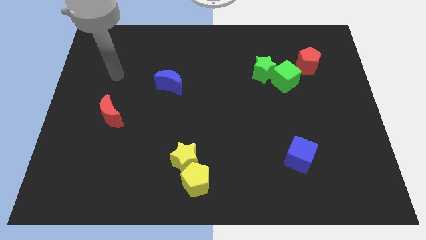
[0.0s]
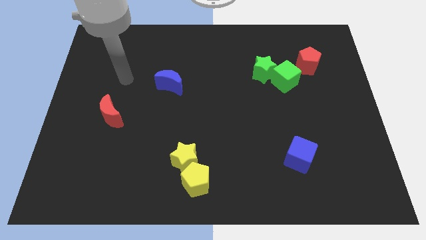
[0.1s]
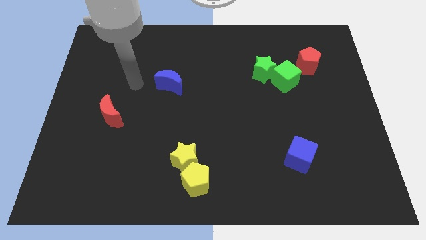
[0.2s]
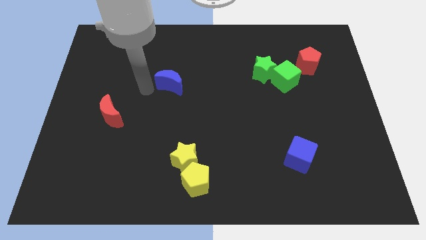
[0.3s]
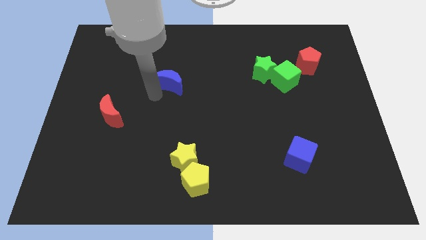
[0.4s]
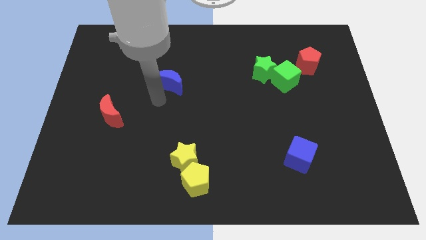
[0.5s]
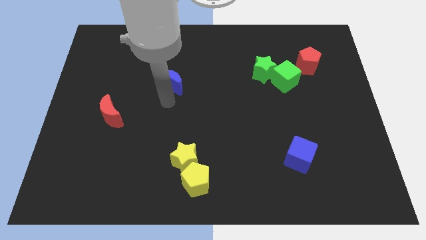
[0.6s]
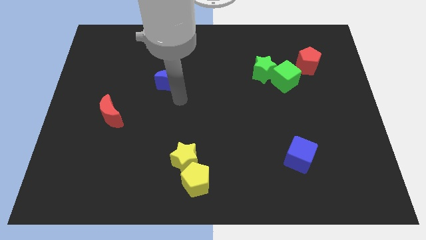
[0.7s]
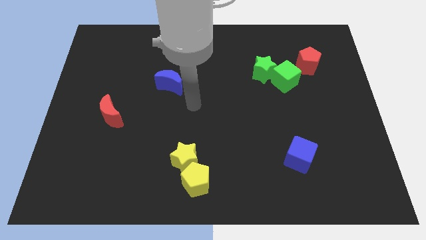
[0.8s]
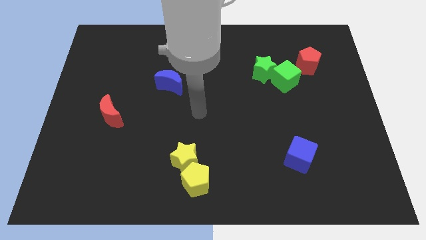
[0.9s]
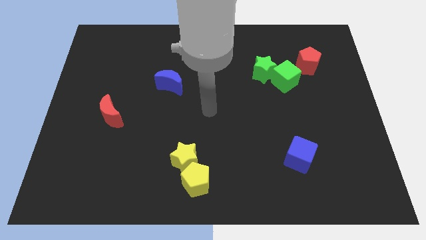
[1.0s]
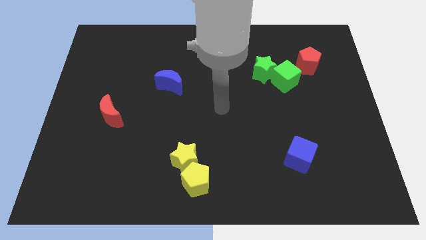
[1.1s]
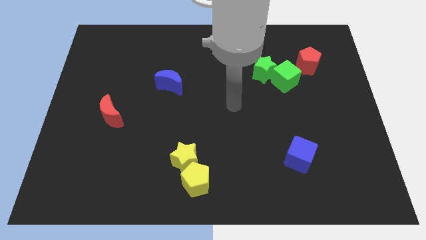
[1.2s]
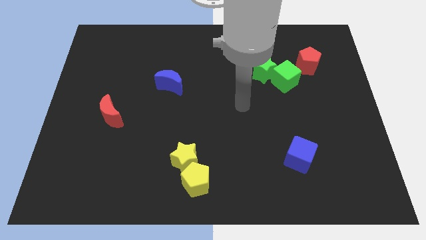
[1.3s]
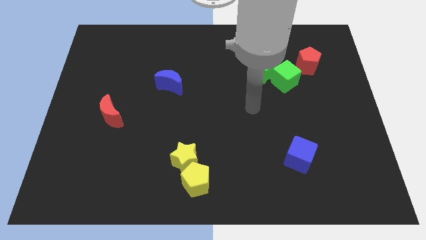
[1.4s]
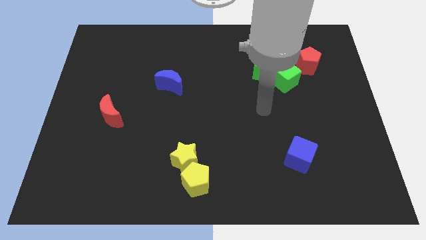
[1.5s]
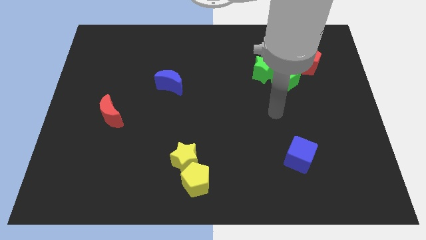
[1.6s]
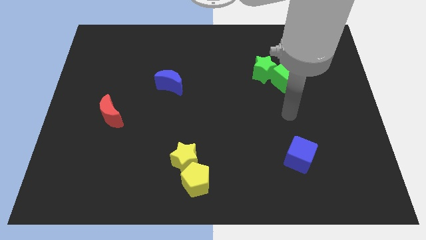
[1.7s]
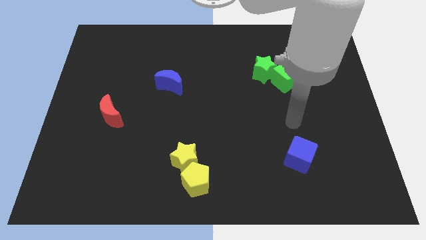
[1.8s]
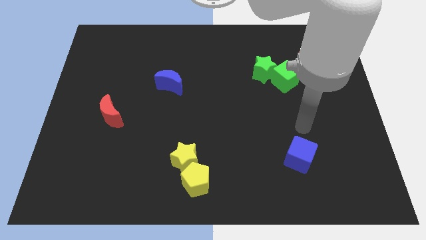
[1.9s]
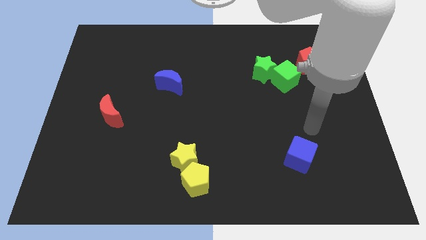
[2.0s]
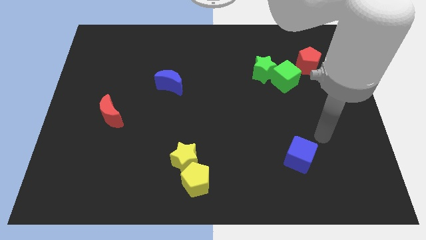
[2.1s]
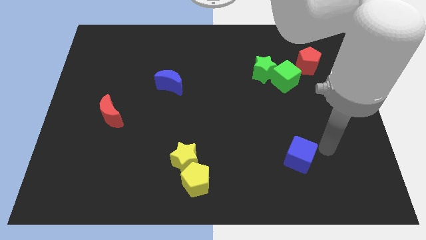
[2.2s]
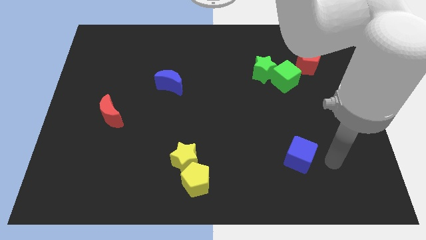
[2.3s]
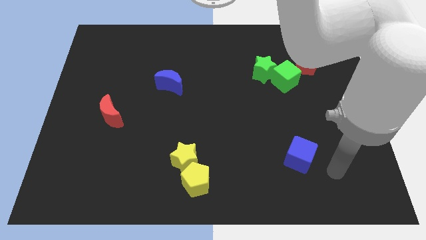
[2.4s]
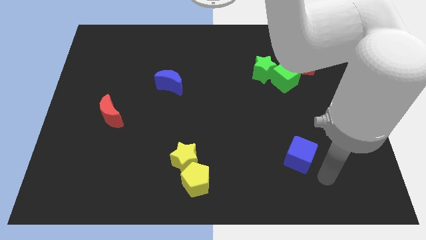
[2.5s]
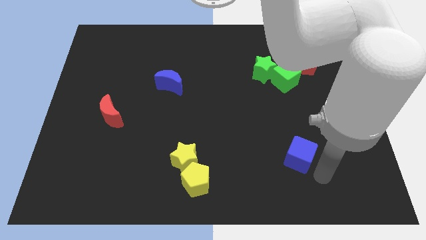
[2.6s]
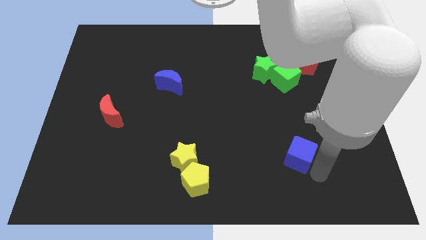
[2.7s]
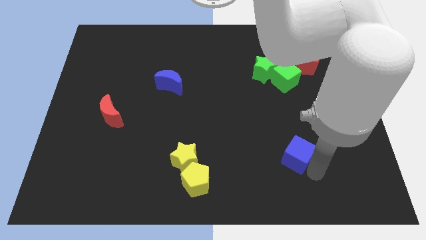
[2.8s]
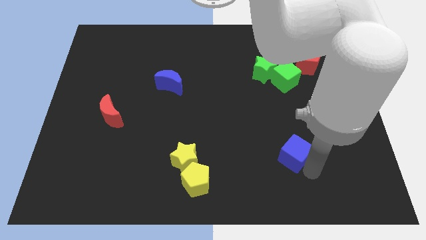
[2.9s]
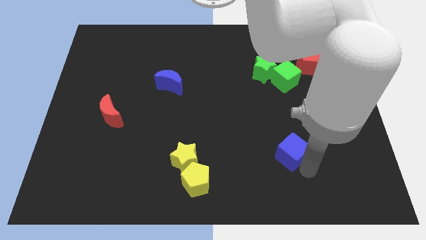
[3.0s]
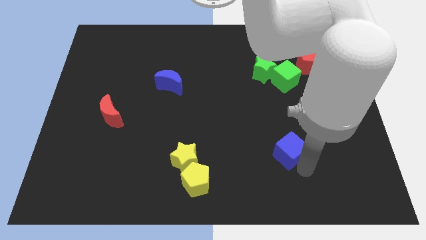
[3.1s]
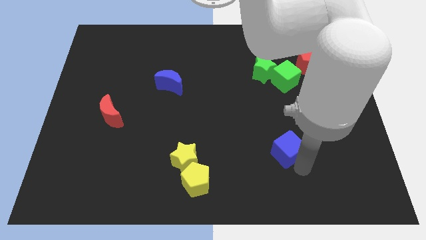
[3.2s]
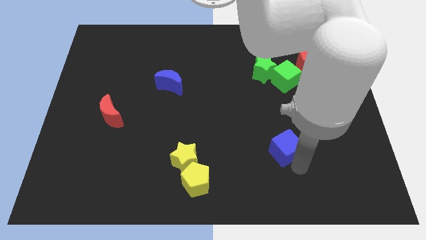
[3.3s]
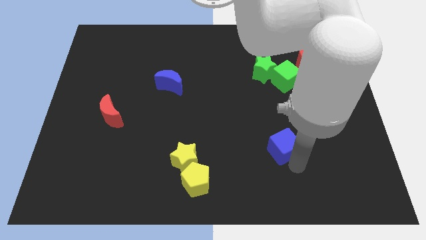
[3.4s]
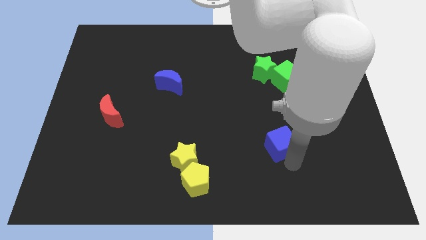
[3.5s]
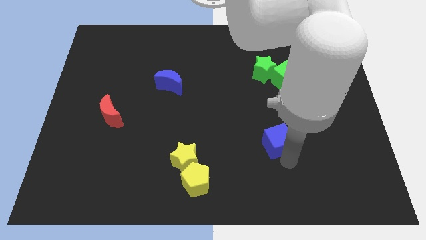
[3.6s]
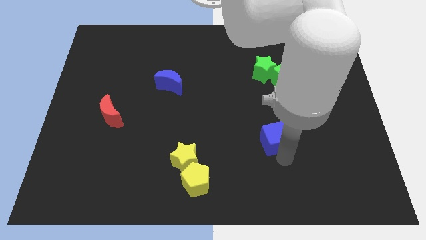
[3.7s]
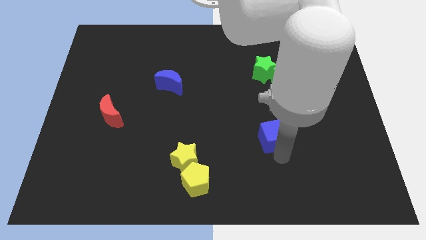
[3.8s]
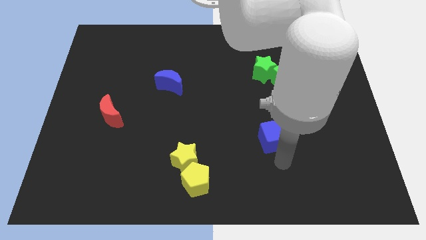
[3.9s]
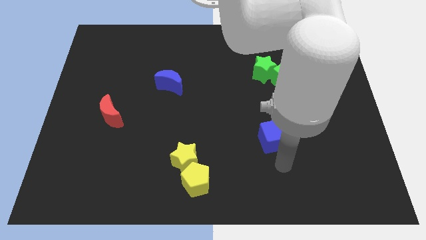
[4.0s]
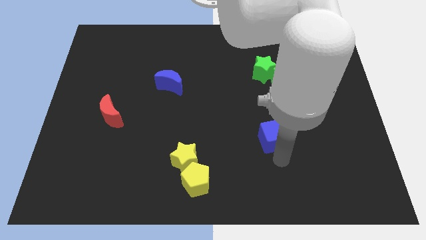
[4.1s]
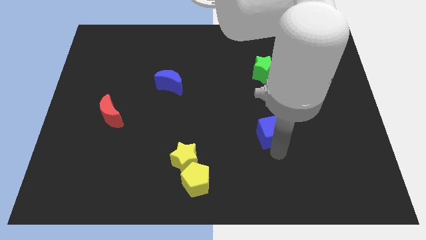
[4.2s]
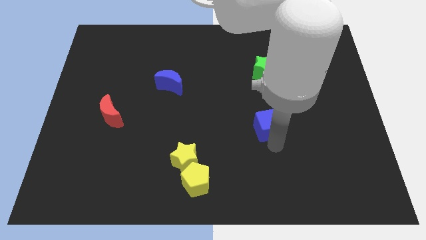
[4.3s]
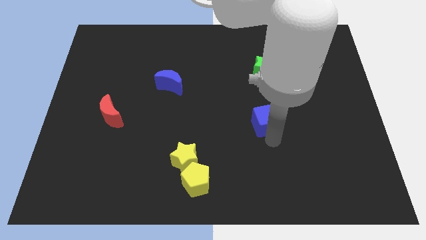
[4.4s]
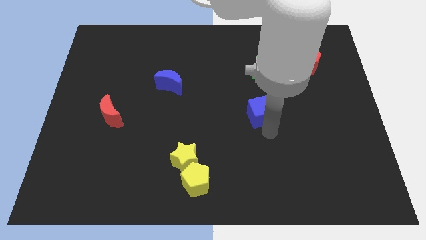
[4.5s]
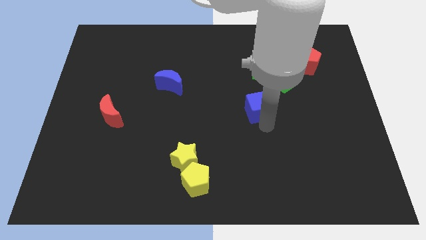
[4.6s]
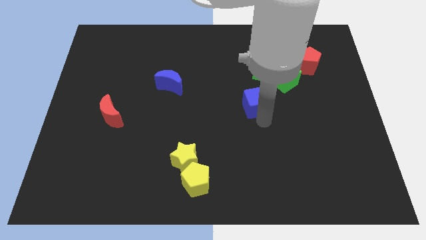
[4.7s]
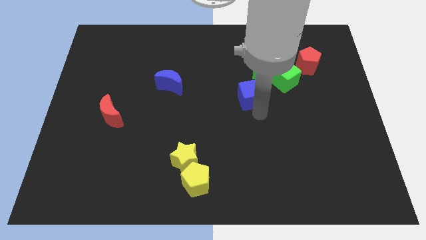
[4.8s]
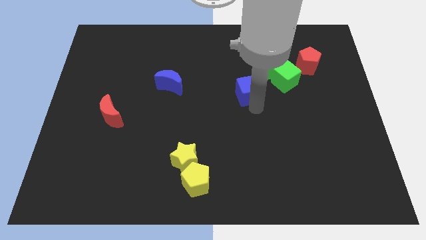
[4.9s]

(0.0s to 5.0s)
push the blue cube just left of the green cube

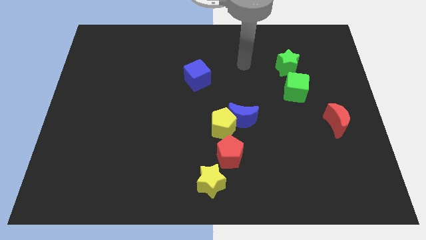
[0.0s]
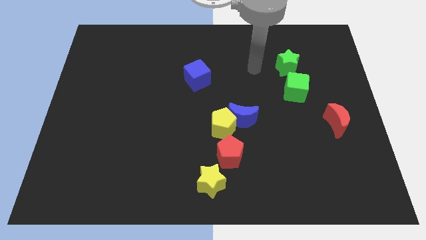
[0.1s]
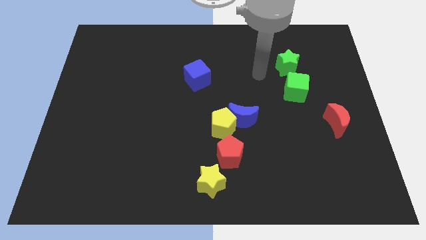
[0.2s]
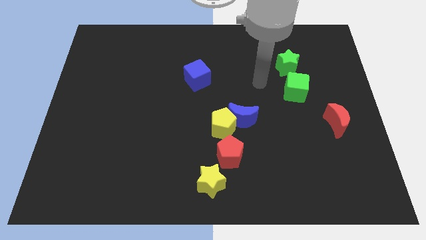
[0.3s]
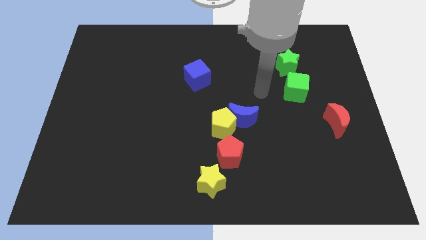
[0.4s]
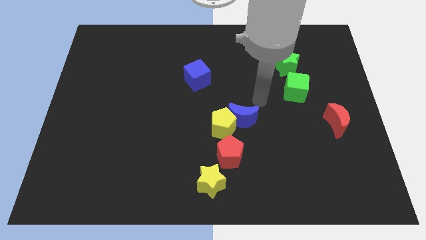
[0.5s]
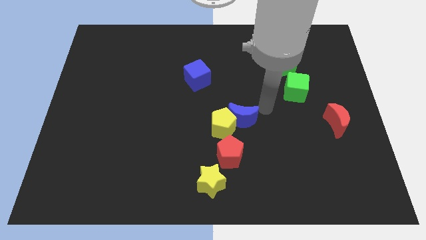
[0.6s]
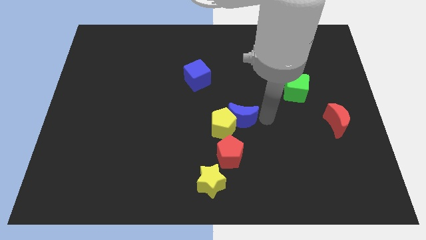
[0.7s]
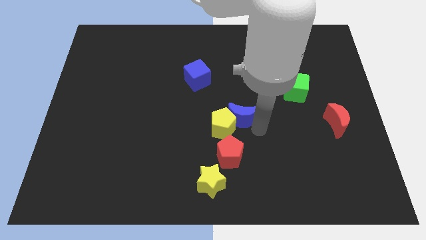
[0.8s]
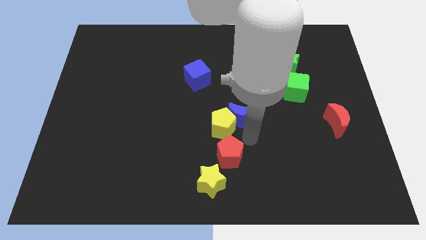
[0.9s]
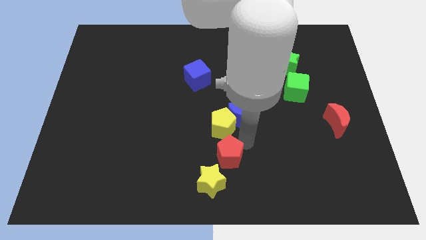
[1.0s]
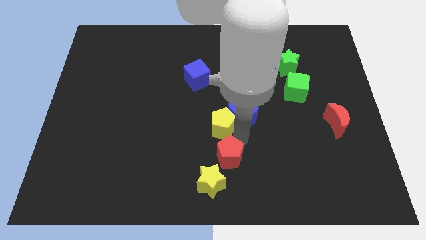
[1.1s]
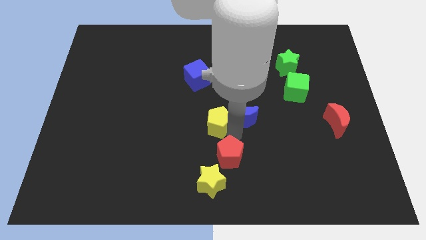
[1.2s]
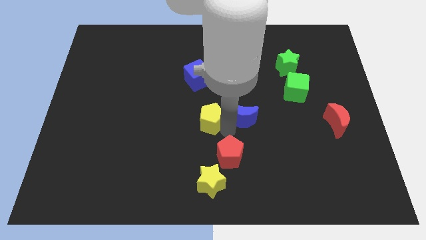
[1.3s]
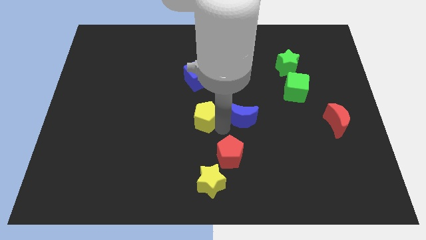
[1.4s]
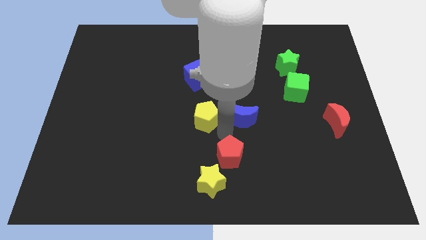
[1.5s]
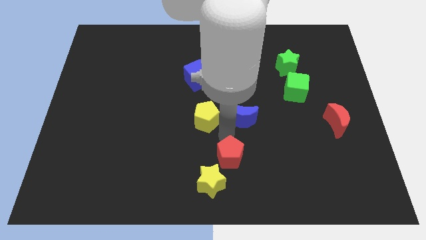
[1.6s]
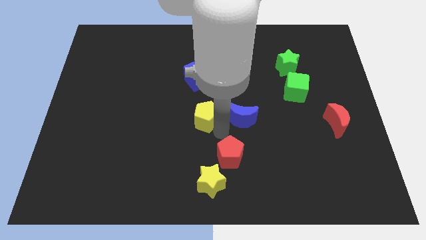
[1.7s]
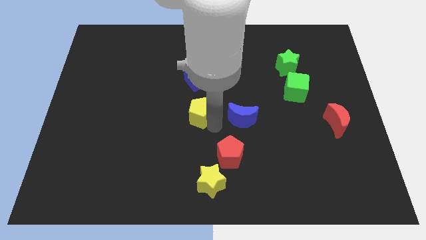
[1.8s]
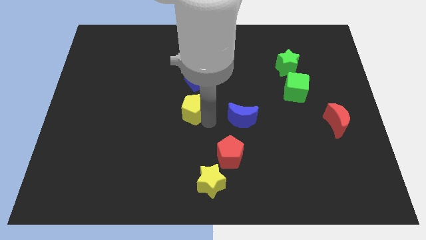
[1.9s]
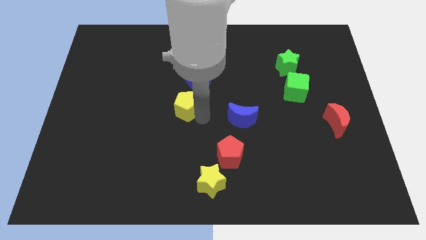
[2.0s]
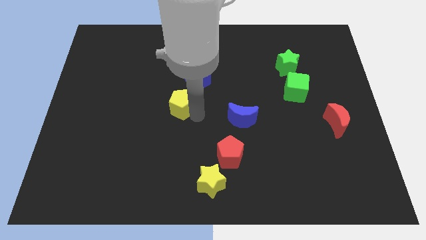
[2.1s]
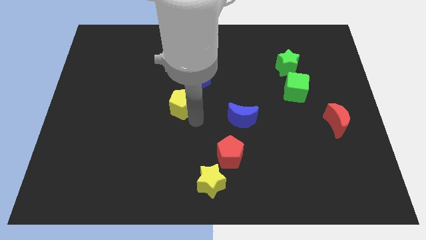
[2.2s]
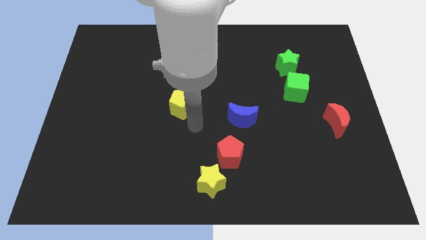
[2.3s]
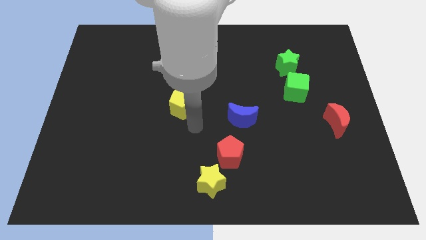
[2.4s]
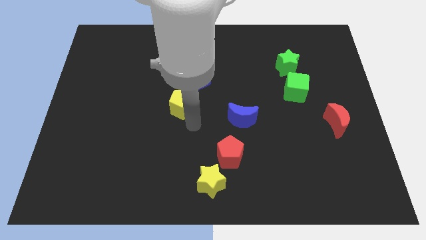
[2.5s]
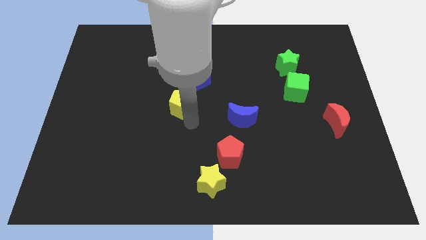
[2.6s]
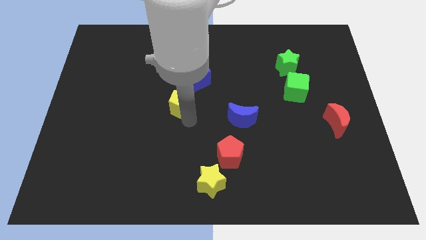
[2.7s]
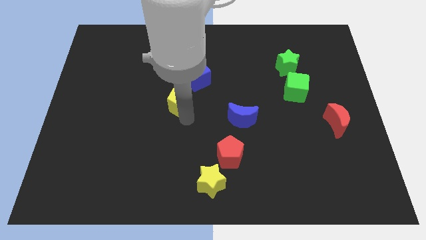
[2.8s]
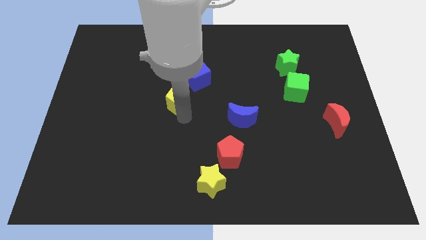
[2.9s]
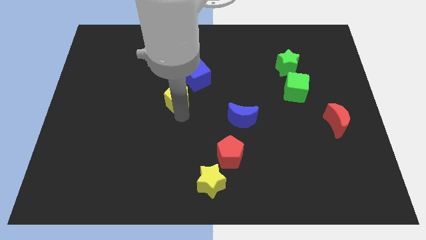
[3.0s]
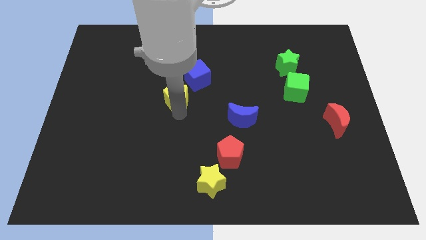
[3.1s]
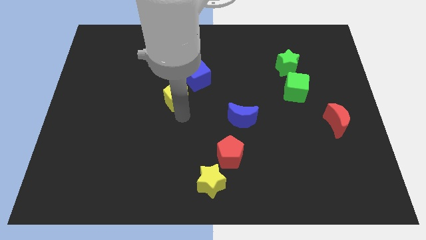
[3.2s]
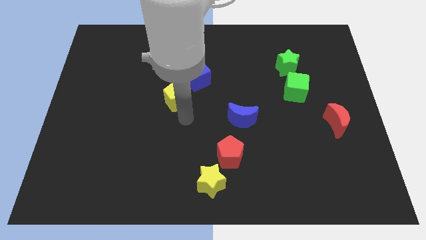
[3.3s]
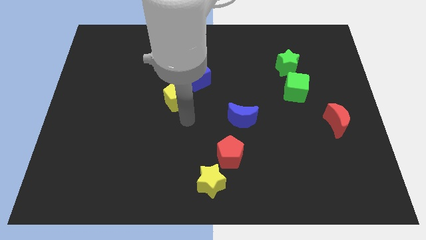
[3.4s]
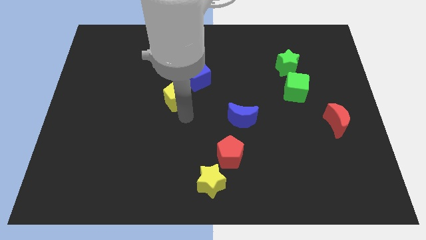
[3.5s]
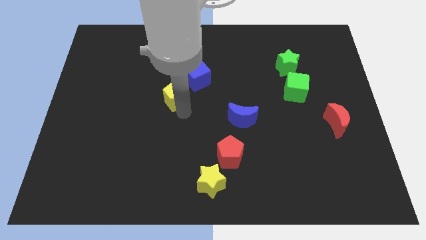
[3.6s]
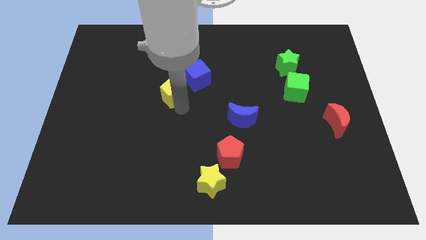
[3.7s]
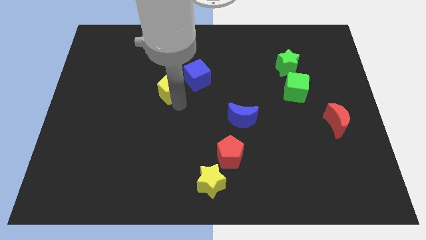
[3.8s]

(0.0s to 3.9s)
put the yellow pentagon just left of the blue cube
